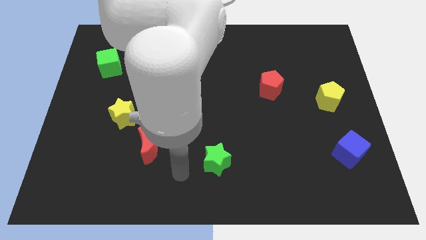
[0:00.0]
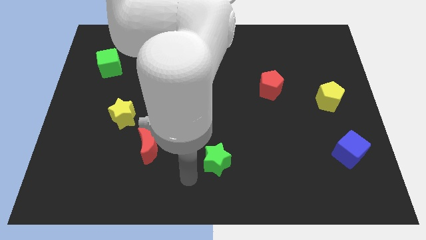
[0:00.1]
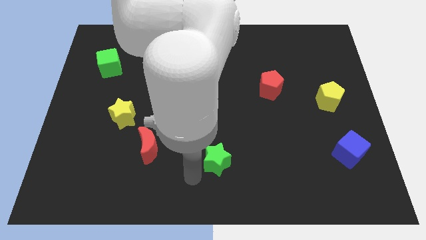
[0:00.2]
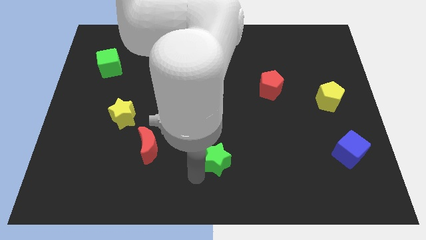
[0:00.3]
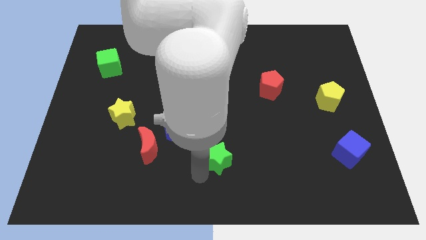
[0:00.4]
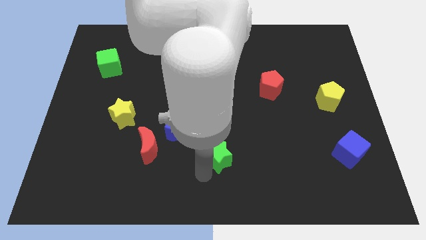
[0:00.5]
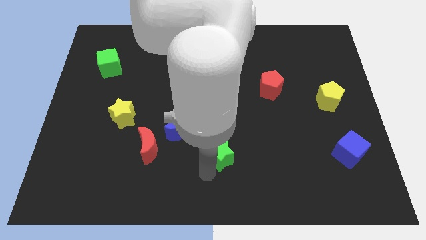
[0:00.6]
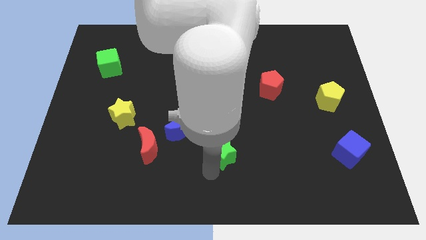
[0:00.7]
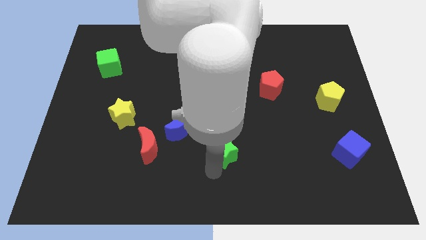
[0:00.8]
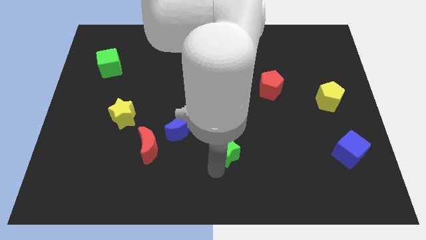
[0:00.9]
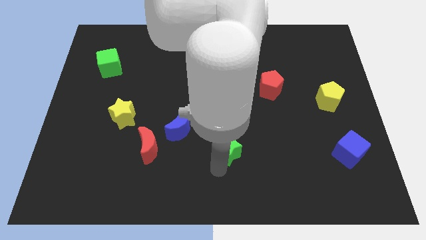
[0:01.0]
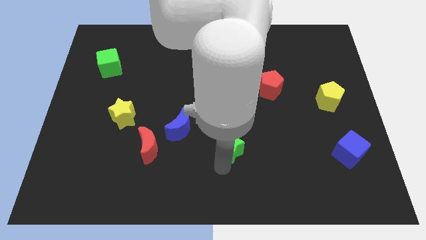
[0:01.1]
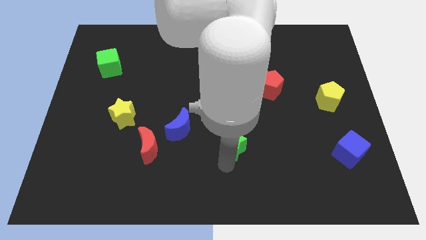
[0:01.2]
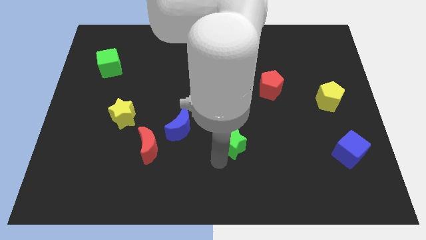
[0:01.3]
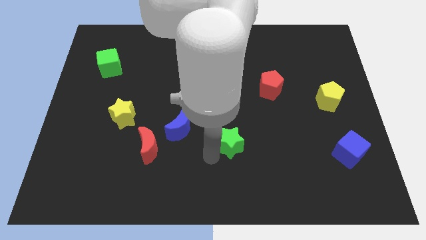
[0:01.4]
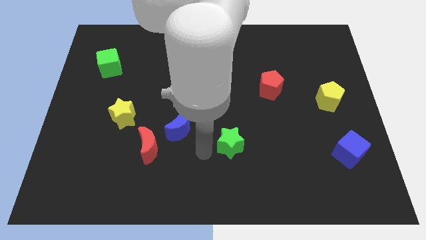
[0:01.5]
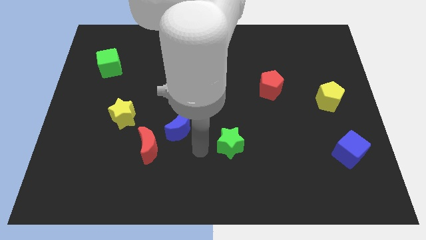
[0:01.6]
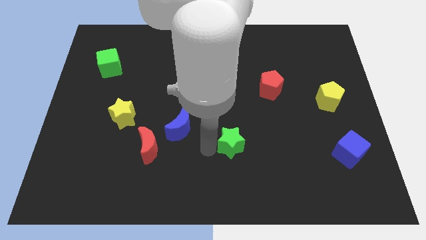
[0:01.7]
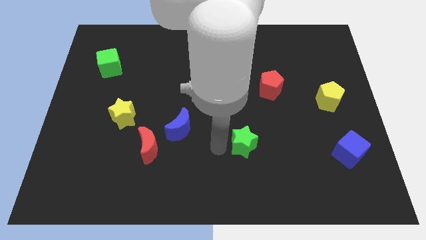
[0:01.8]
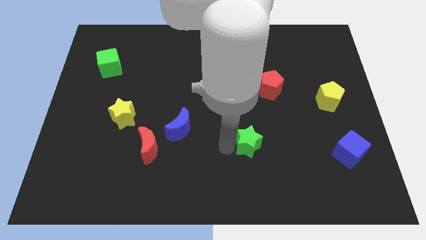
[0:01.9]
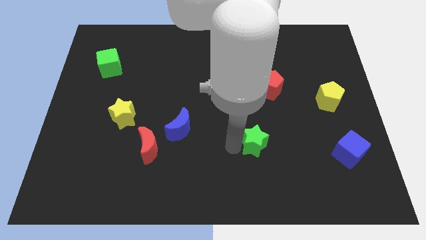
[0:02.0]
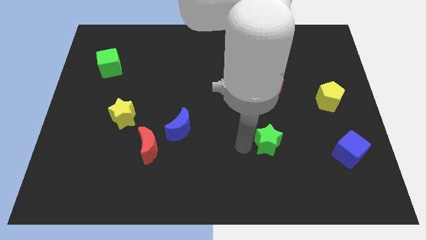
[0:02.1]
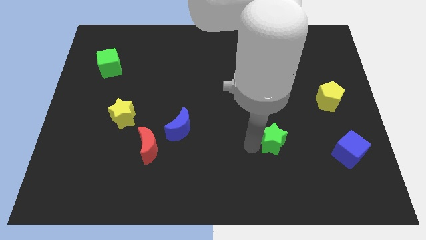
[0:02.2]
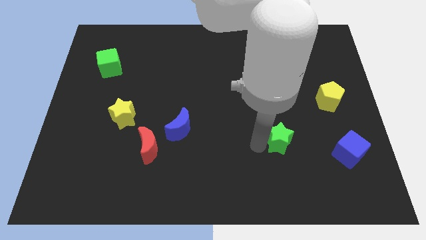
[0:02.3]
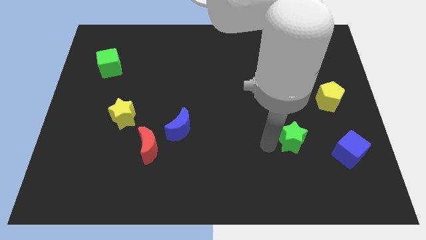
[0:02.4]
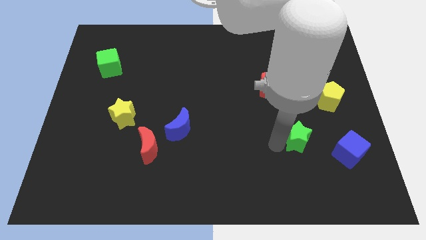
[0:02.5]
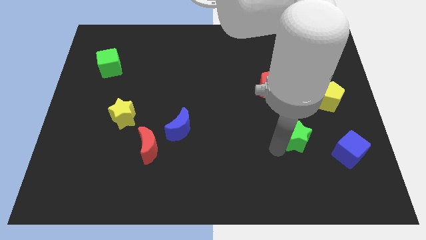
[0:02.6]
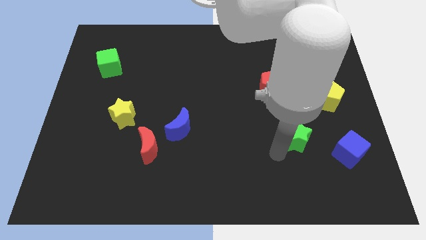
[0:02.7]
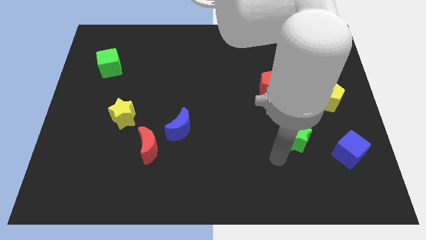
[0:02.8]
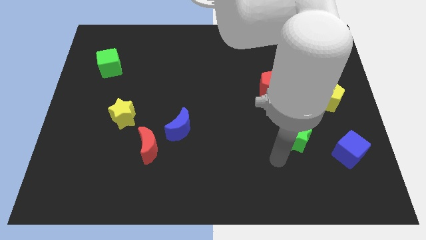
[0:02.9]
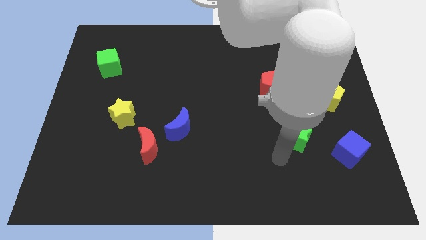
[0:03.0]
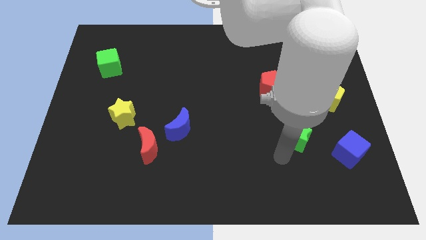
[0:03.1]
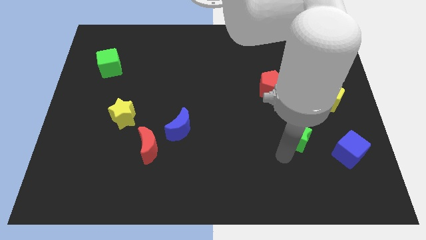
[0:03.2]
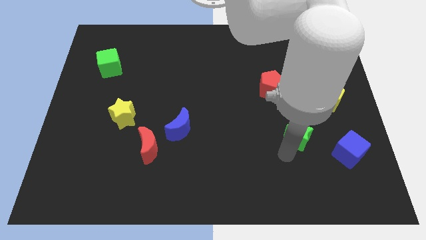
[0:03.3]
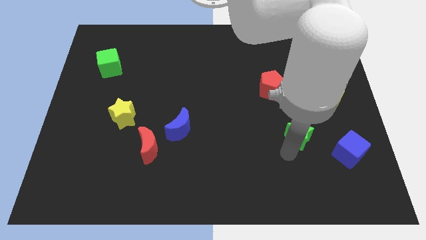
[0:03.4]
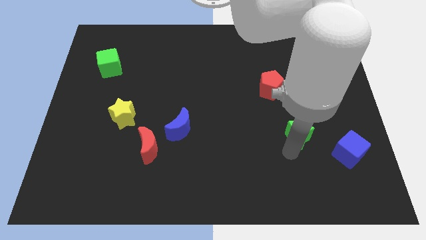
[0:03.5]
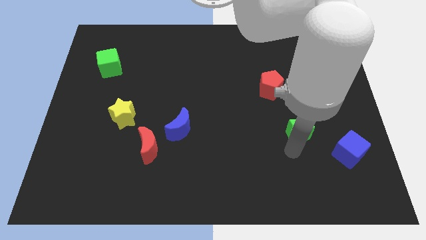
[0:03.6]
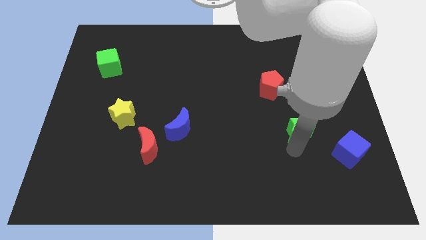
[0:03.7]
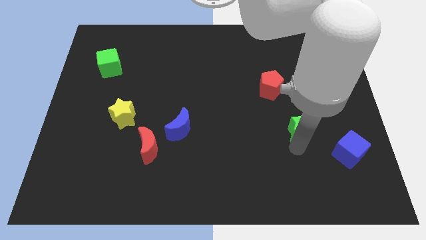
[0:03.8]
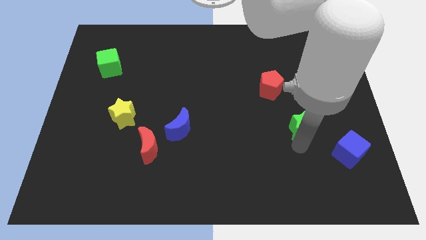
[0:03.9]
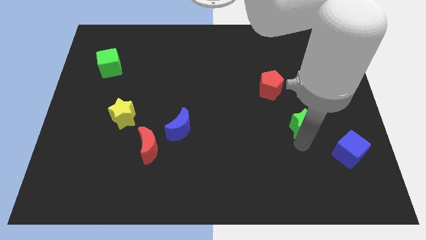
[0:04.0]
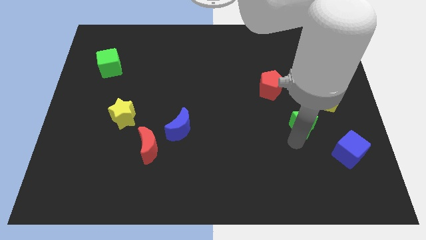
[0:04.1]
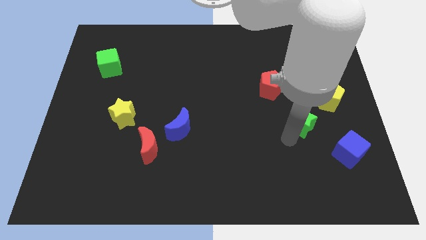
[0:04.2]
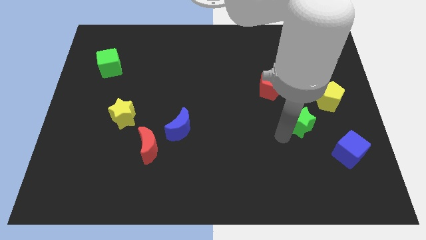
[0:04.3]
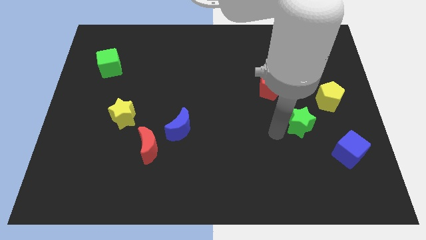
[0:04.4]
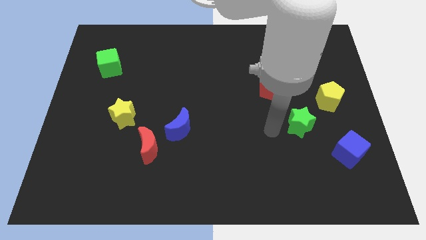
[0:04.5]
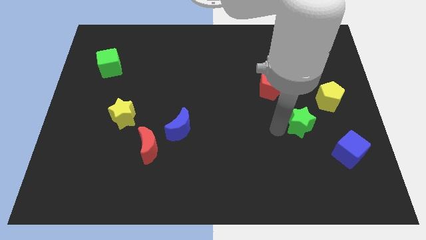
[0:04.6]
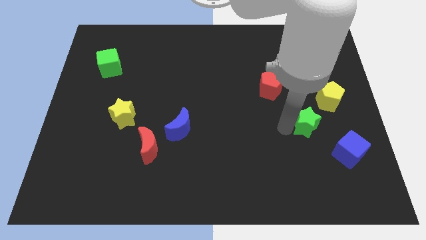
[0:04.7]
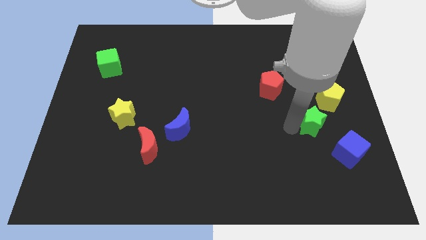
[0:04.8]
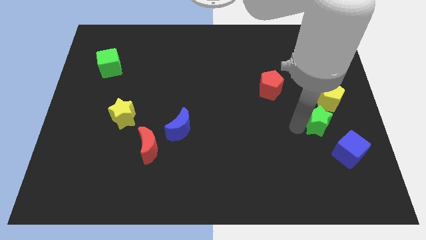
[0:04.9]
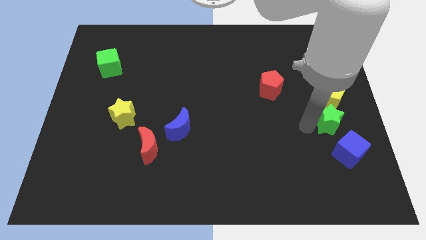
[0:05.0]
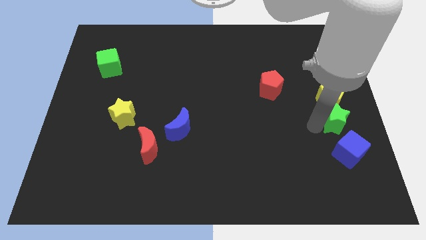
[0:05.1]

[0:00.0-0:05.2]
put the green star to the right side of the board

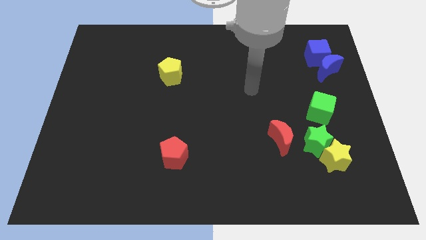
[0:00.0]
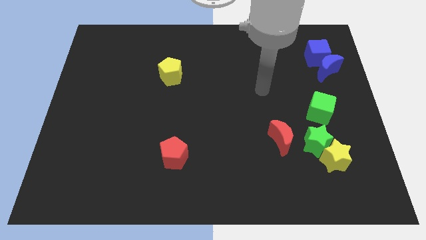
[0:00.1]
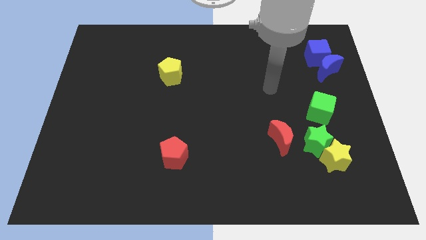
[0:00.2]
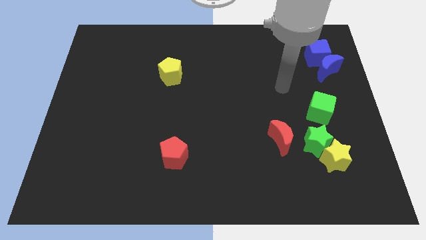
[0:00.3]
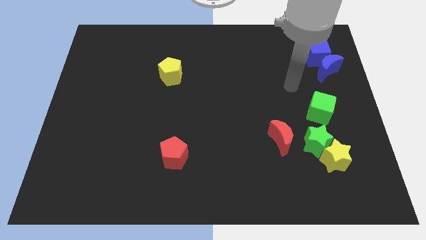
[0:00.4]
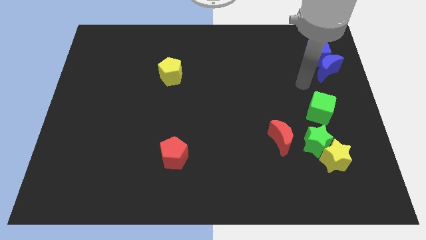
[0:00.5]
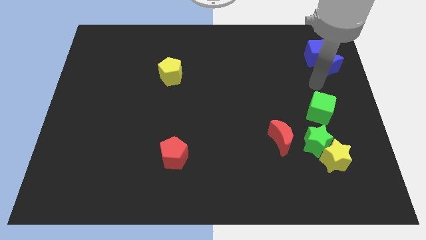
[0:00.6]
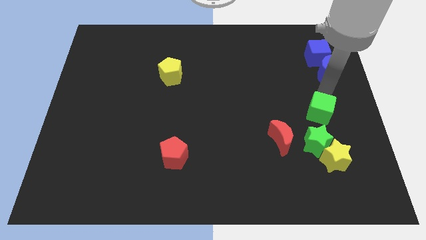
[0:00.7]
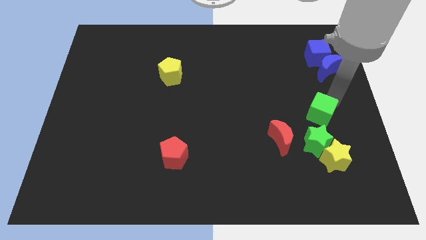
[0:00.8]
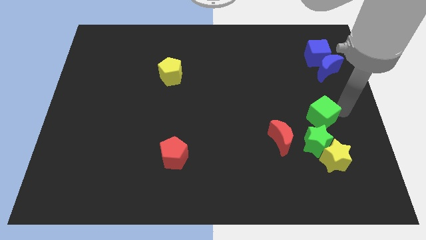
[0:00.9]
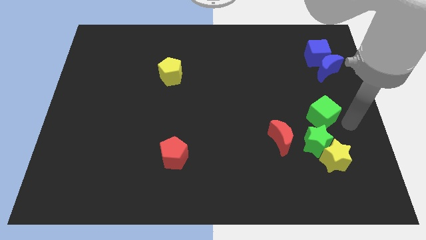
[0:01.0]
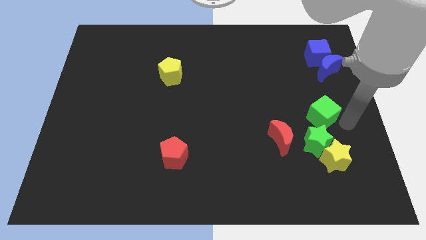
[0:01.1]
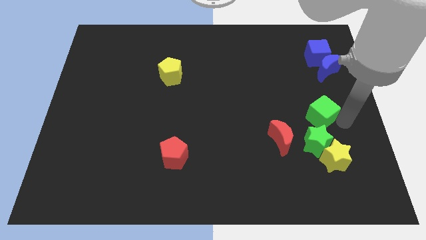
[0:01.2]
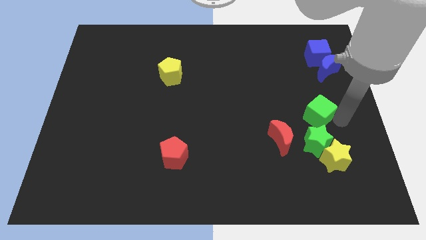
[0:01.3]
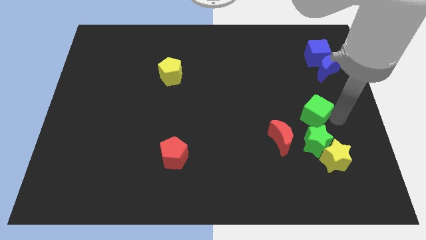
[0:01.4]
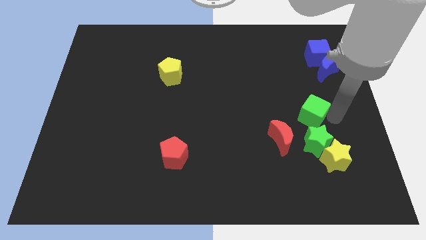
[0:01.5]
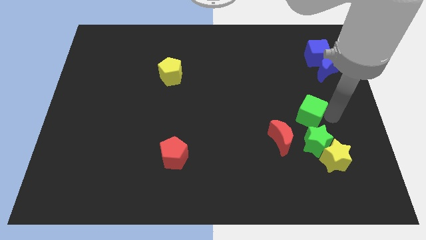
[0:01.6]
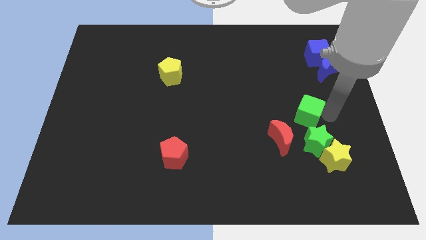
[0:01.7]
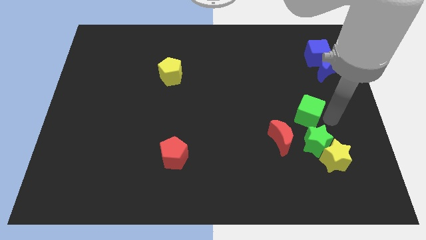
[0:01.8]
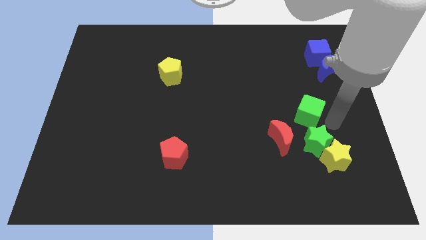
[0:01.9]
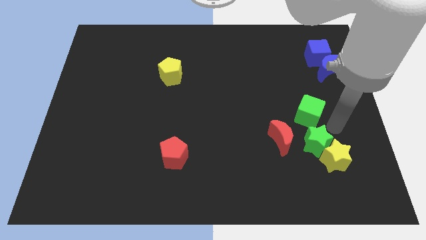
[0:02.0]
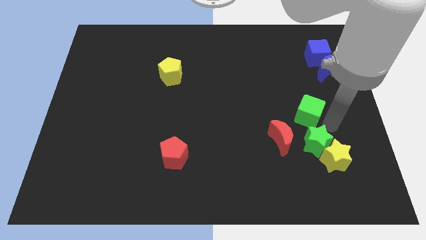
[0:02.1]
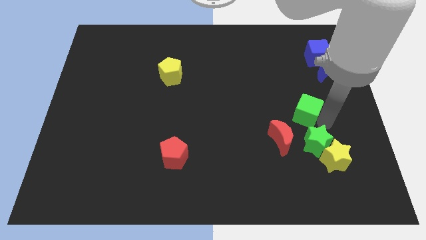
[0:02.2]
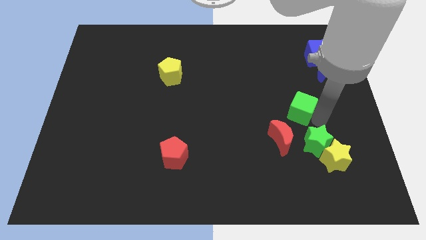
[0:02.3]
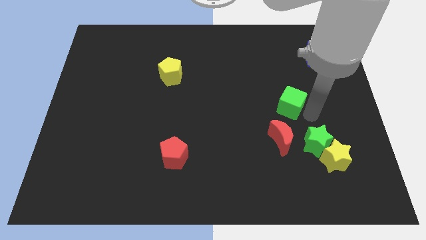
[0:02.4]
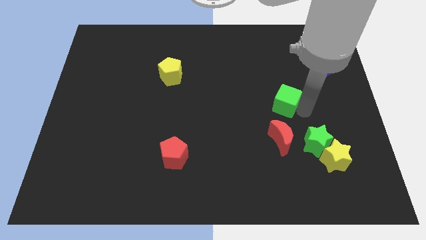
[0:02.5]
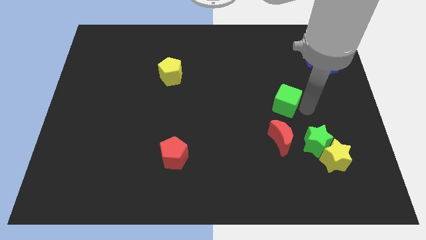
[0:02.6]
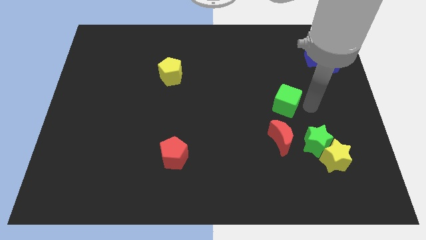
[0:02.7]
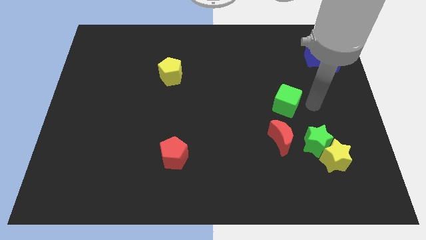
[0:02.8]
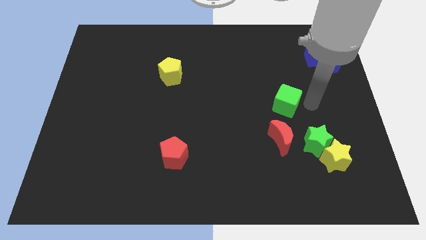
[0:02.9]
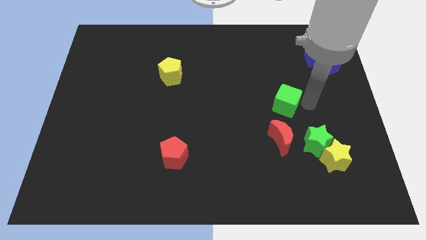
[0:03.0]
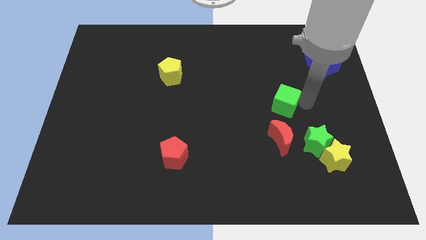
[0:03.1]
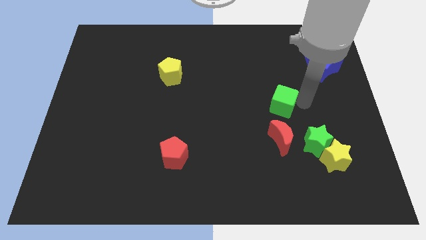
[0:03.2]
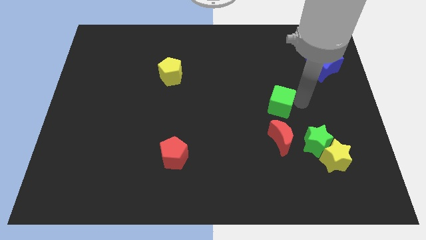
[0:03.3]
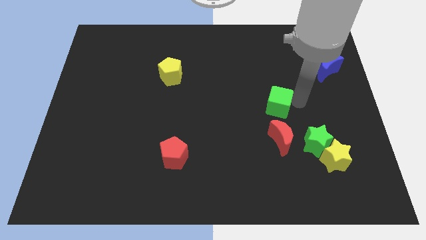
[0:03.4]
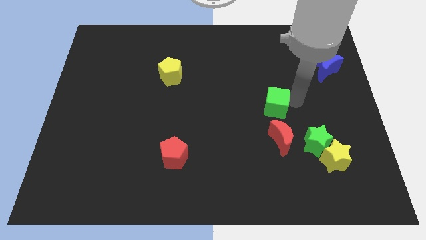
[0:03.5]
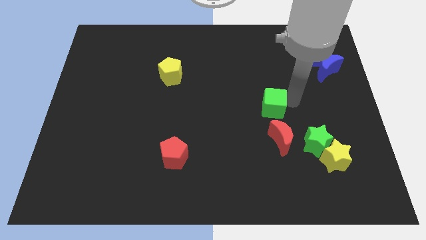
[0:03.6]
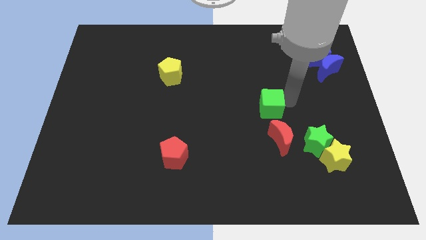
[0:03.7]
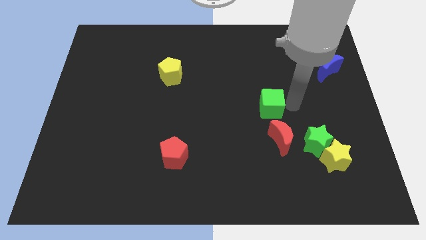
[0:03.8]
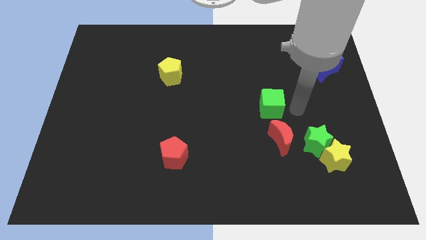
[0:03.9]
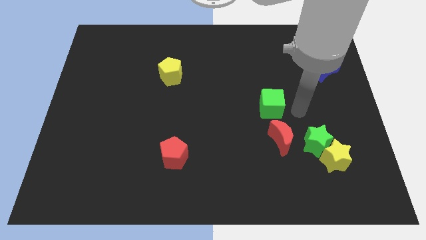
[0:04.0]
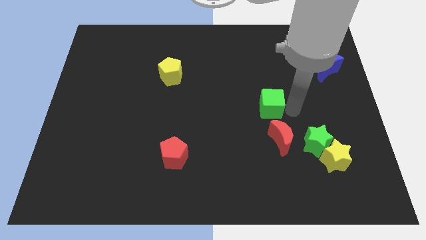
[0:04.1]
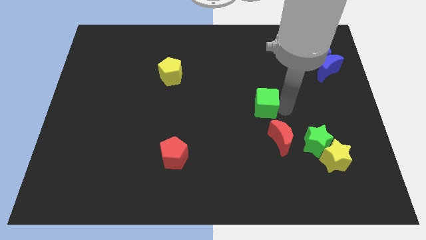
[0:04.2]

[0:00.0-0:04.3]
move the green cube to the center
